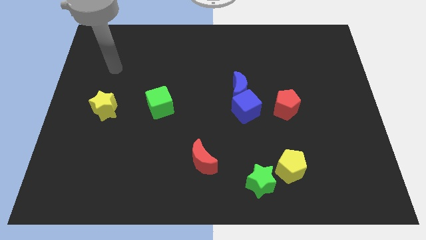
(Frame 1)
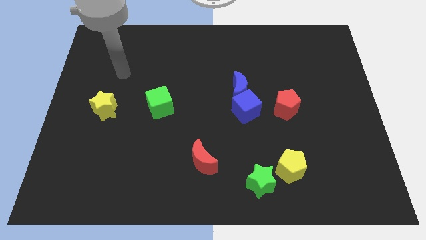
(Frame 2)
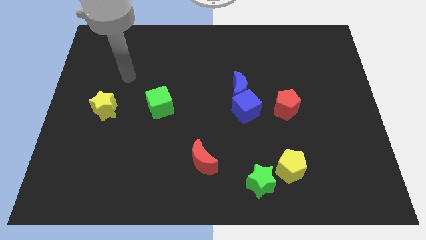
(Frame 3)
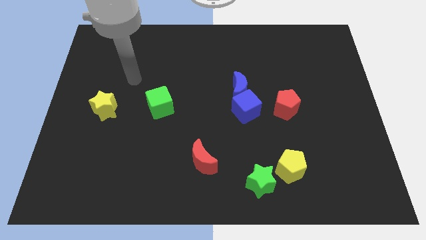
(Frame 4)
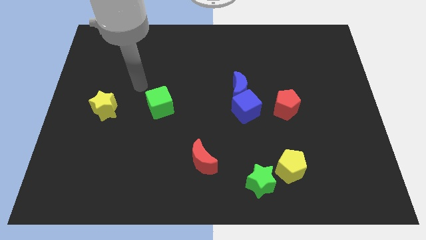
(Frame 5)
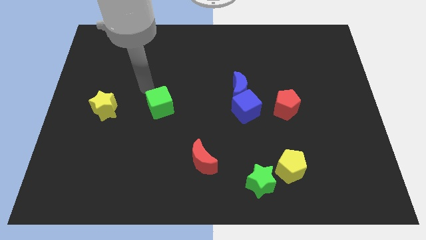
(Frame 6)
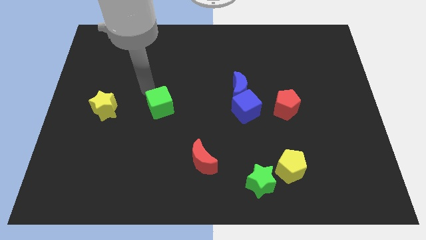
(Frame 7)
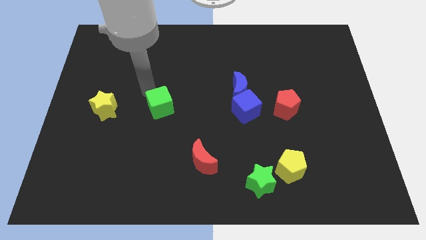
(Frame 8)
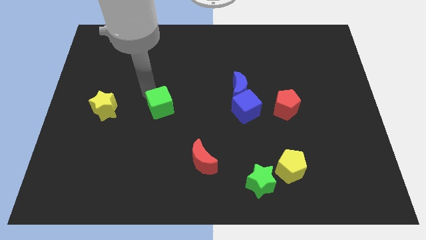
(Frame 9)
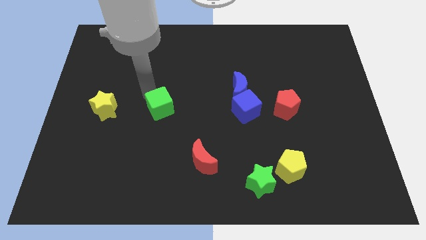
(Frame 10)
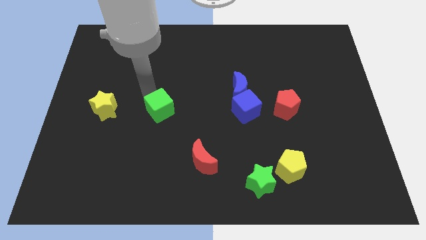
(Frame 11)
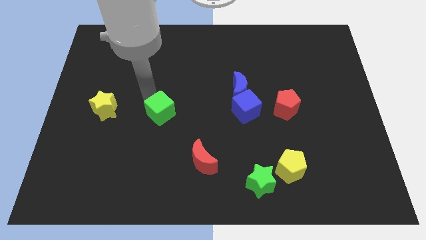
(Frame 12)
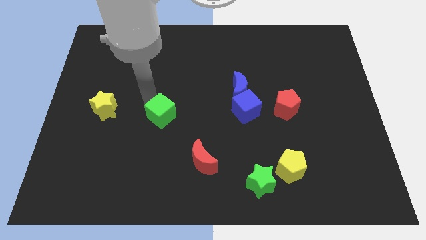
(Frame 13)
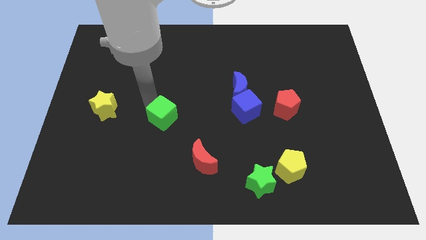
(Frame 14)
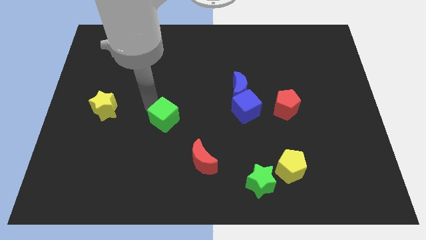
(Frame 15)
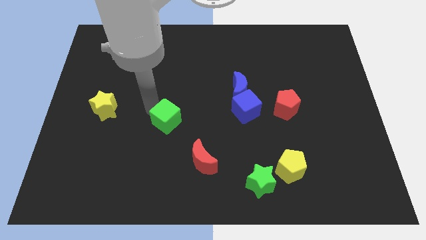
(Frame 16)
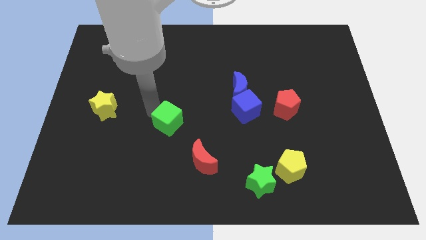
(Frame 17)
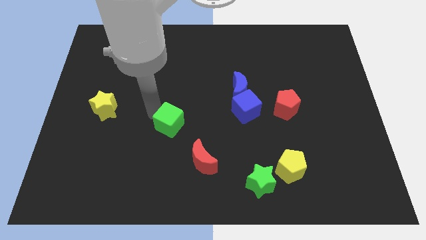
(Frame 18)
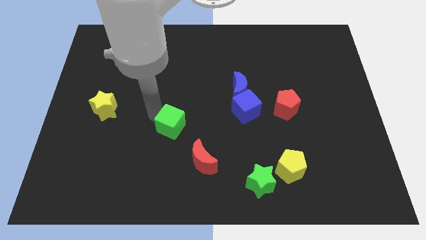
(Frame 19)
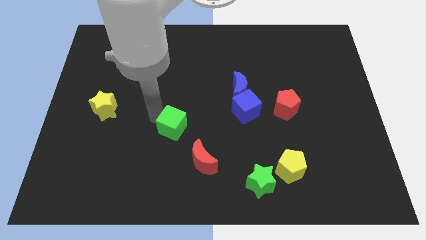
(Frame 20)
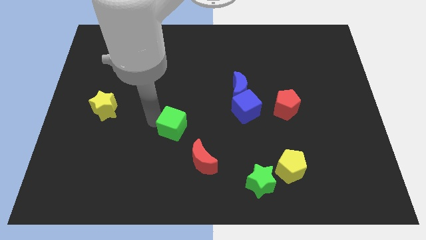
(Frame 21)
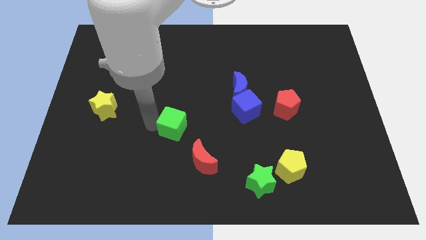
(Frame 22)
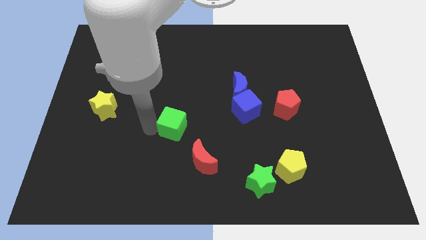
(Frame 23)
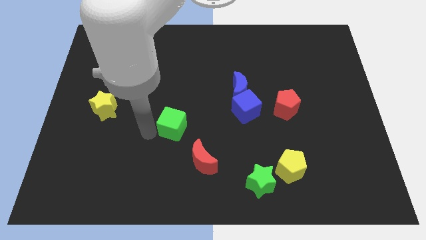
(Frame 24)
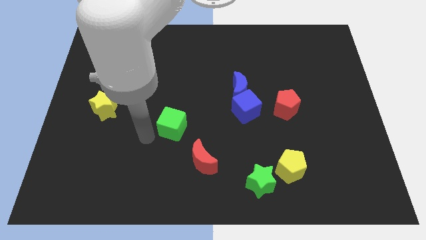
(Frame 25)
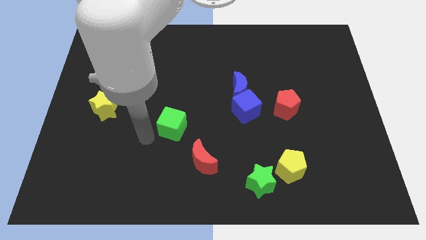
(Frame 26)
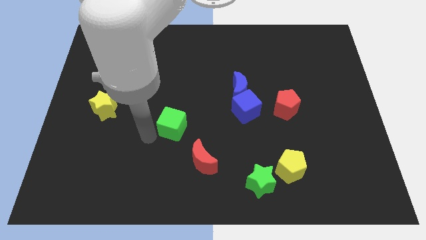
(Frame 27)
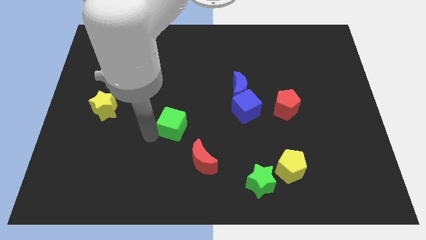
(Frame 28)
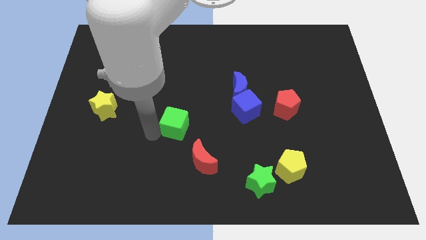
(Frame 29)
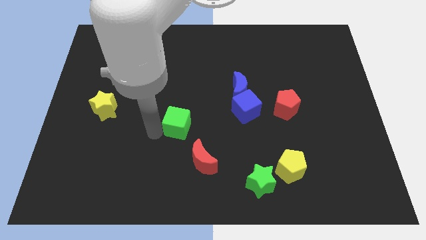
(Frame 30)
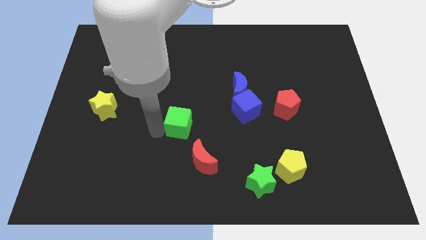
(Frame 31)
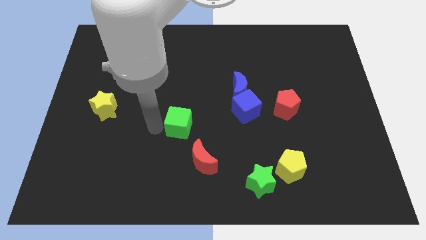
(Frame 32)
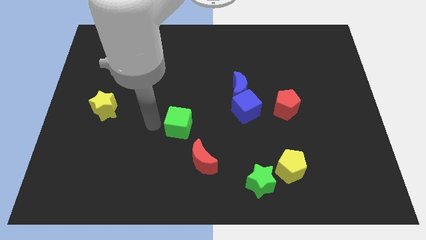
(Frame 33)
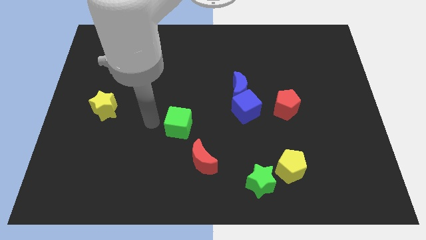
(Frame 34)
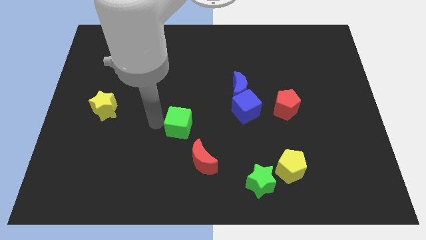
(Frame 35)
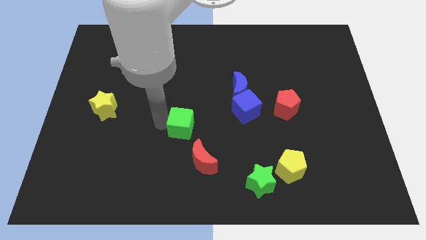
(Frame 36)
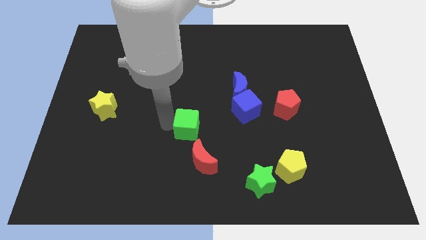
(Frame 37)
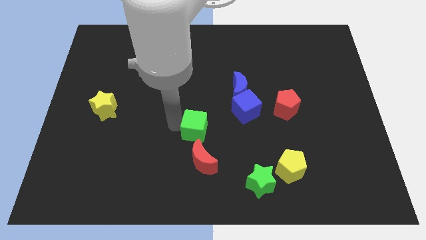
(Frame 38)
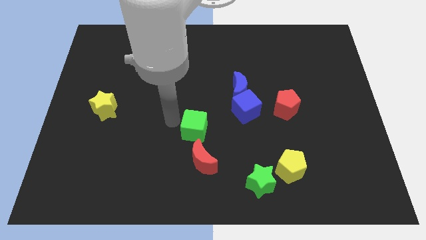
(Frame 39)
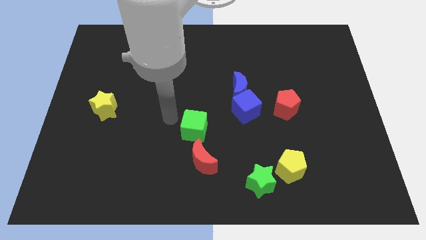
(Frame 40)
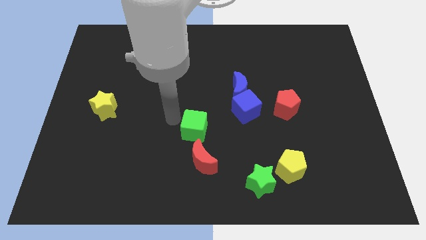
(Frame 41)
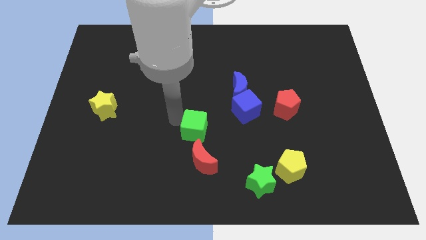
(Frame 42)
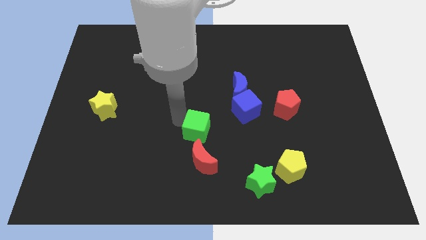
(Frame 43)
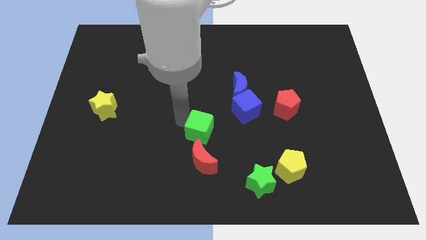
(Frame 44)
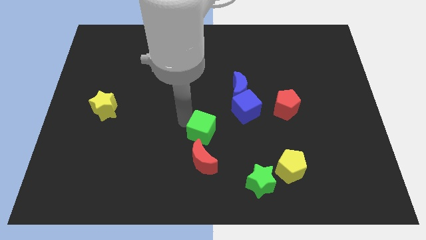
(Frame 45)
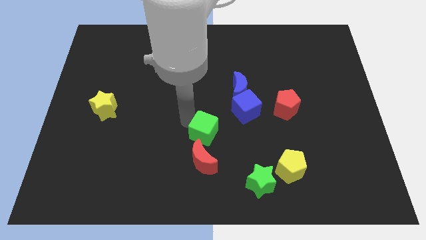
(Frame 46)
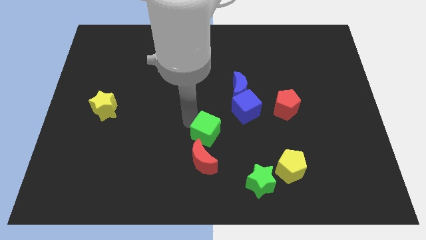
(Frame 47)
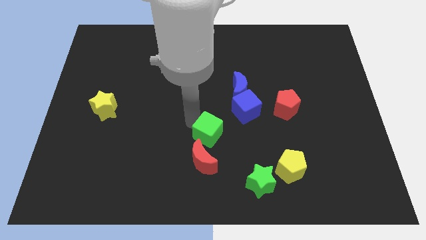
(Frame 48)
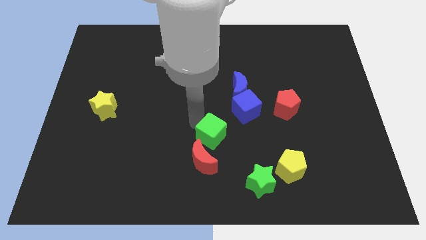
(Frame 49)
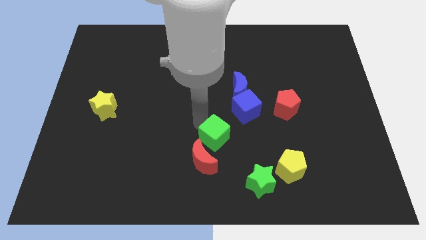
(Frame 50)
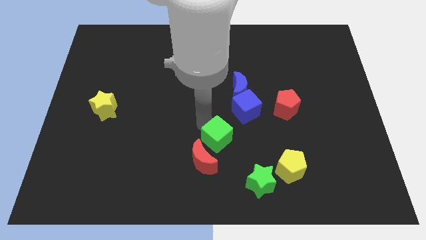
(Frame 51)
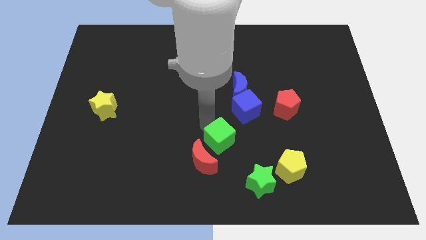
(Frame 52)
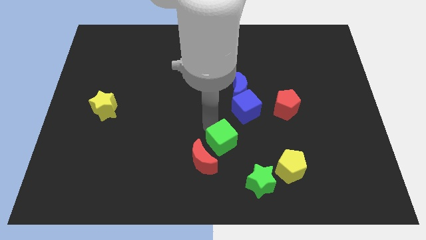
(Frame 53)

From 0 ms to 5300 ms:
move the green cube to the top left side of the green star

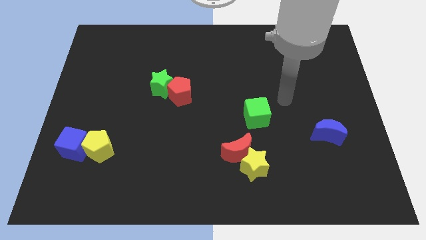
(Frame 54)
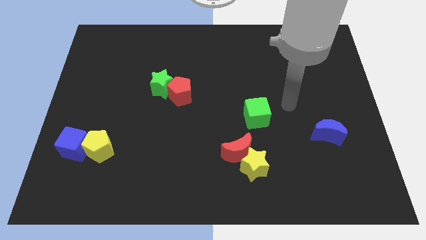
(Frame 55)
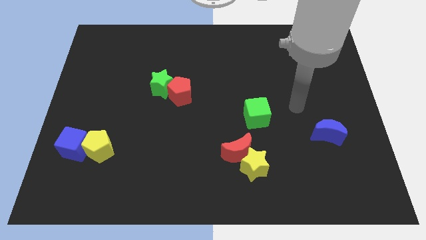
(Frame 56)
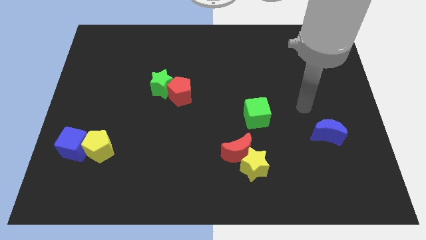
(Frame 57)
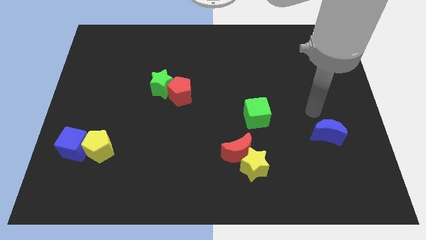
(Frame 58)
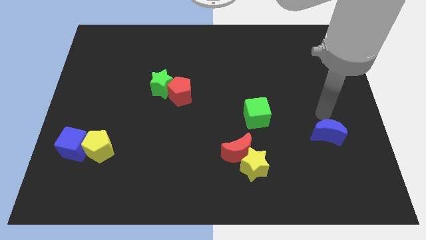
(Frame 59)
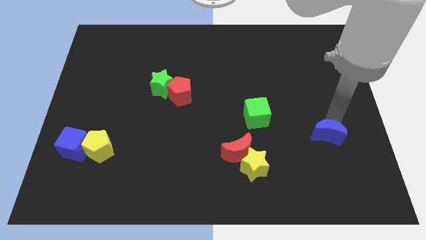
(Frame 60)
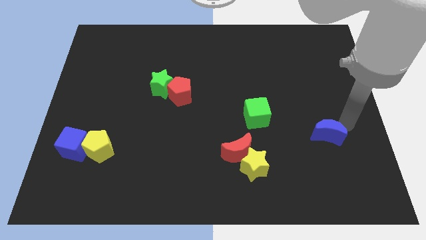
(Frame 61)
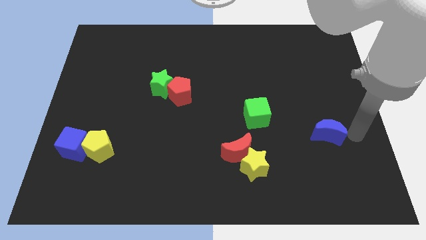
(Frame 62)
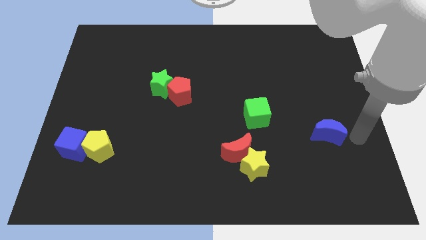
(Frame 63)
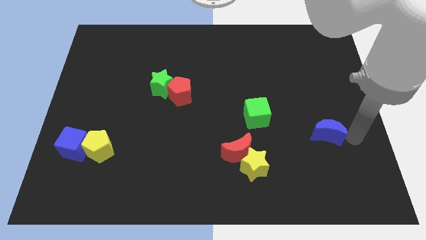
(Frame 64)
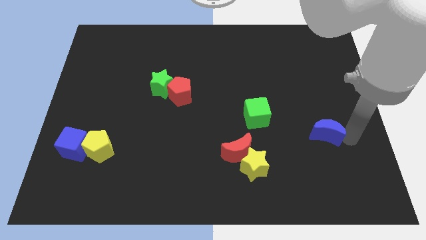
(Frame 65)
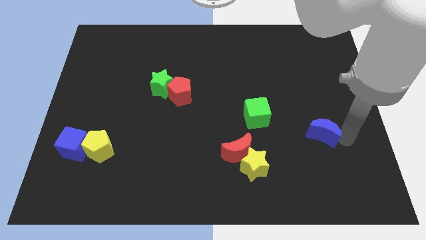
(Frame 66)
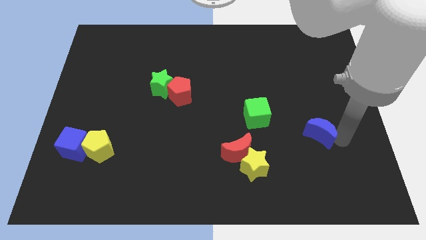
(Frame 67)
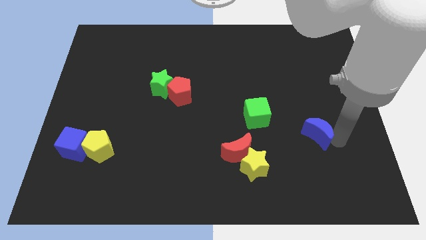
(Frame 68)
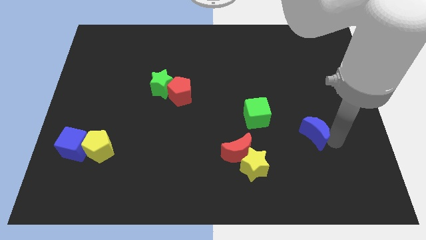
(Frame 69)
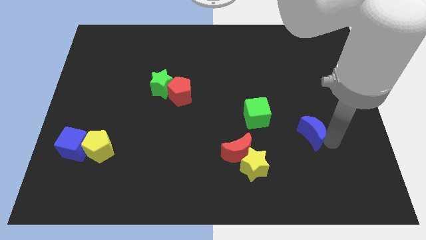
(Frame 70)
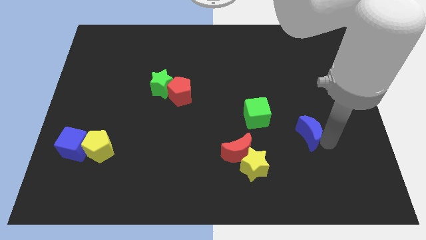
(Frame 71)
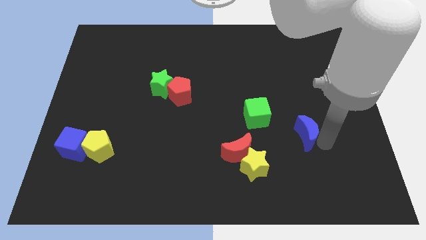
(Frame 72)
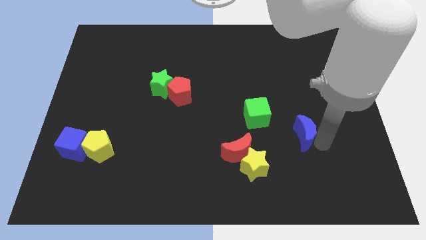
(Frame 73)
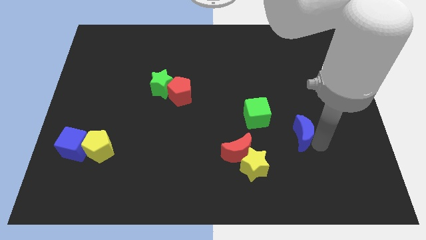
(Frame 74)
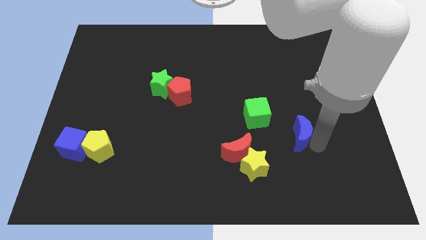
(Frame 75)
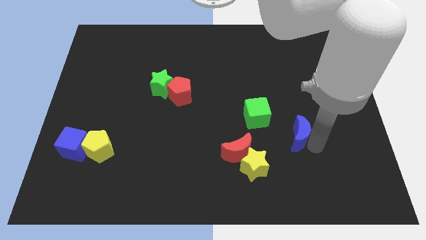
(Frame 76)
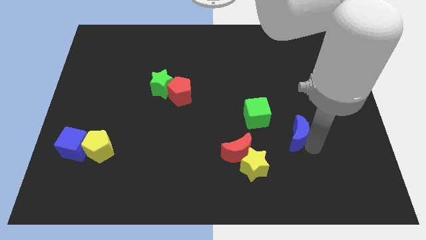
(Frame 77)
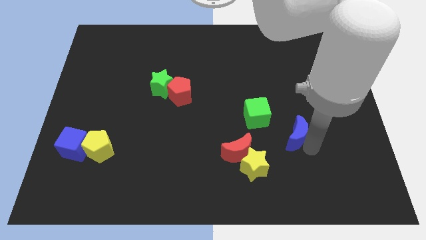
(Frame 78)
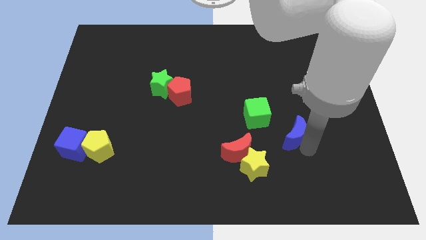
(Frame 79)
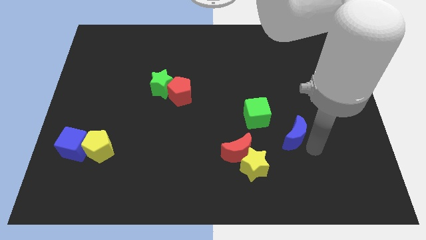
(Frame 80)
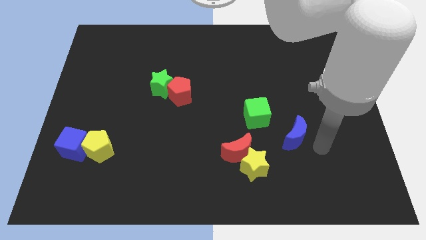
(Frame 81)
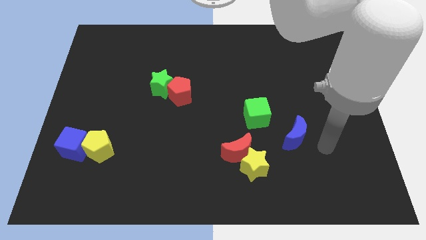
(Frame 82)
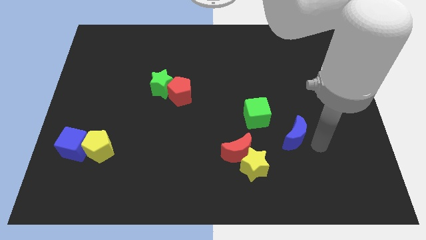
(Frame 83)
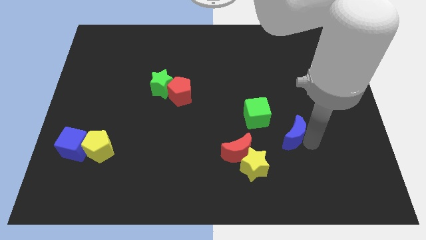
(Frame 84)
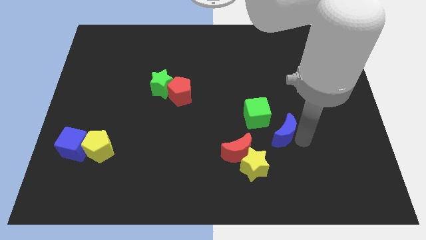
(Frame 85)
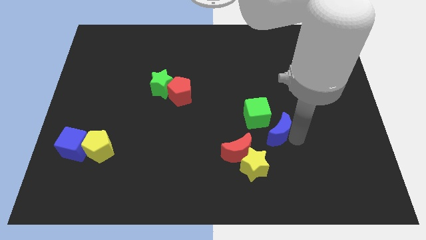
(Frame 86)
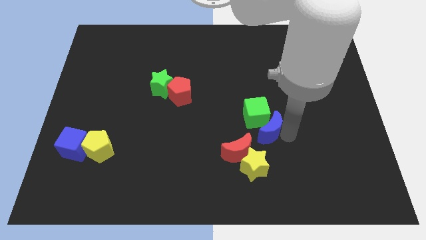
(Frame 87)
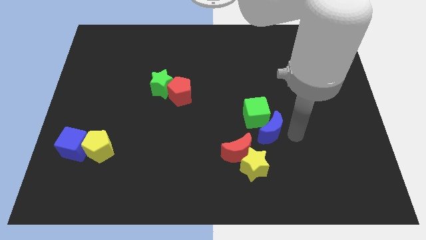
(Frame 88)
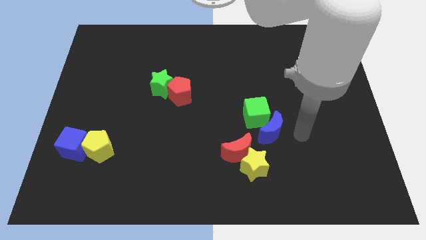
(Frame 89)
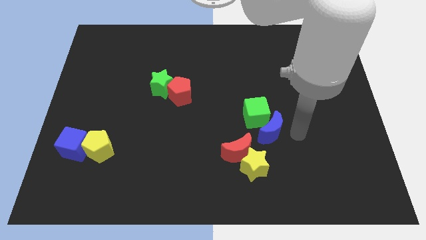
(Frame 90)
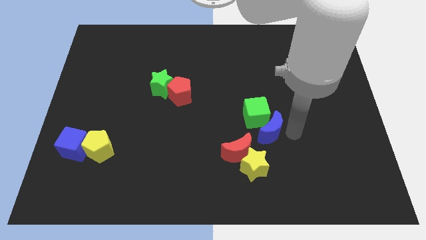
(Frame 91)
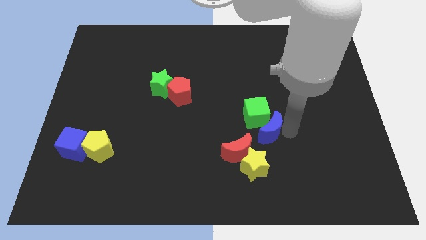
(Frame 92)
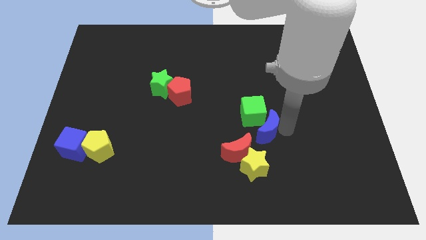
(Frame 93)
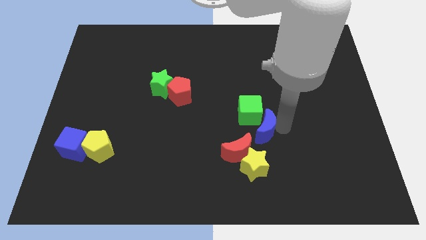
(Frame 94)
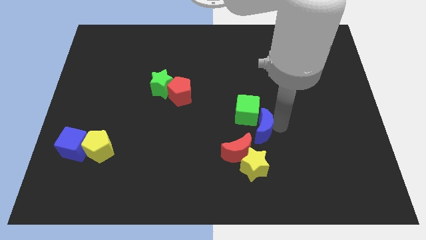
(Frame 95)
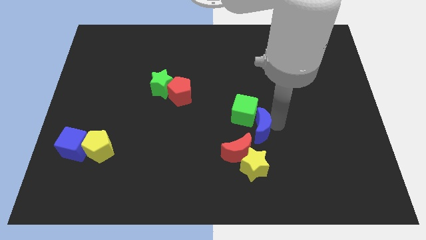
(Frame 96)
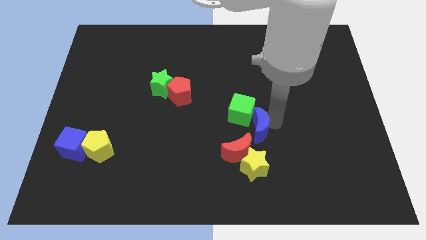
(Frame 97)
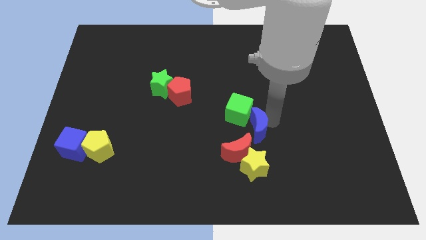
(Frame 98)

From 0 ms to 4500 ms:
slide the blue moon to the top side of the red moon
